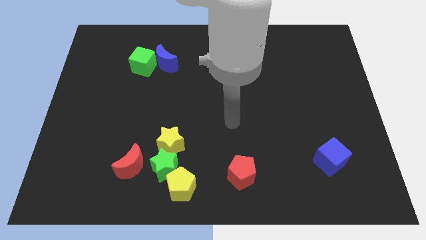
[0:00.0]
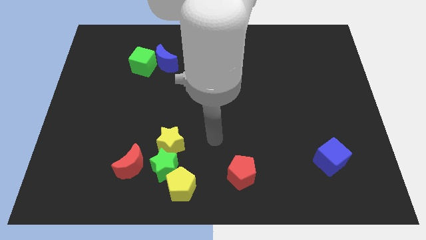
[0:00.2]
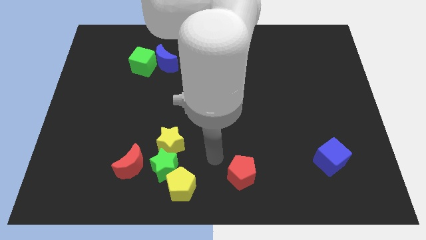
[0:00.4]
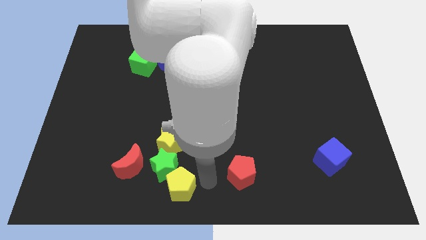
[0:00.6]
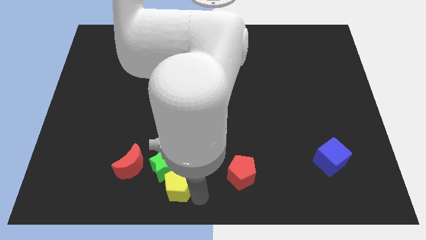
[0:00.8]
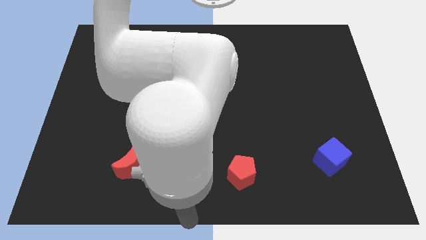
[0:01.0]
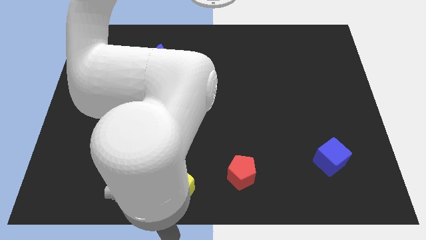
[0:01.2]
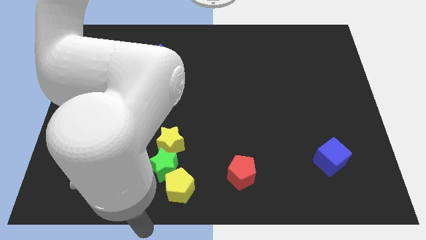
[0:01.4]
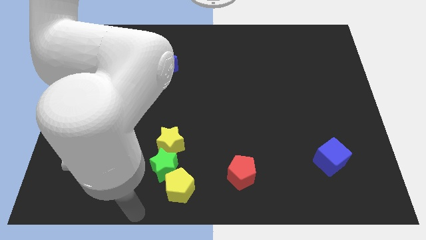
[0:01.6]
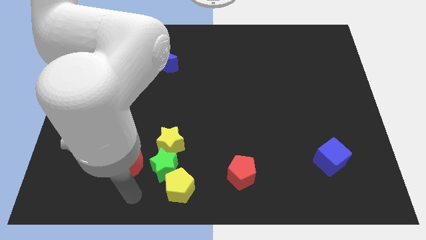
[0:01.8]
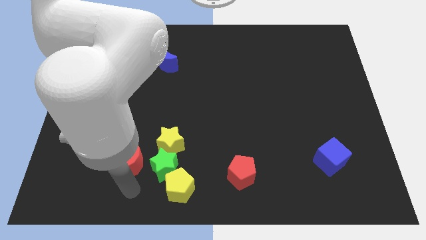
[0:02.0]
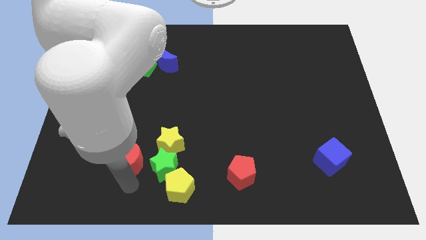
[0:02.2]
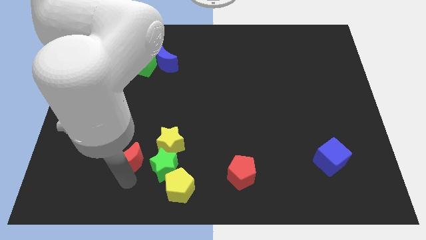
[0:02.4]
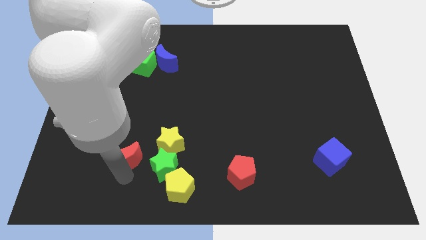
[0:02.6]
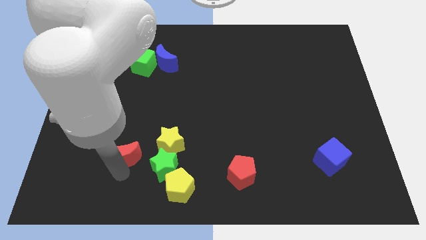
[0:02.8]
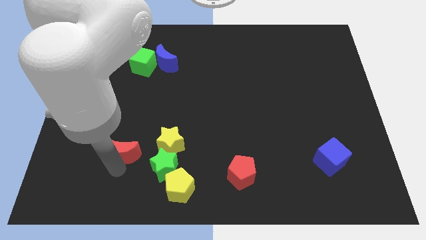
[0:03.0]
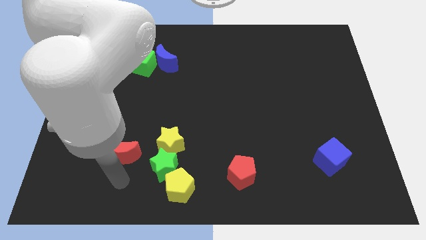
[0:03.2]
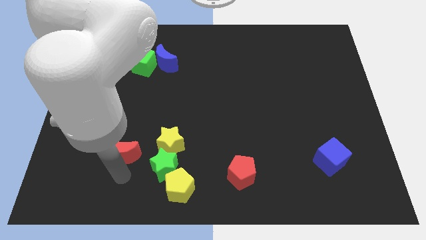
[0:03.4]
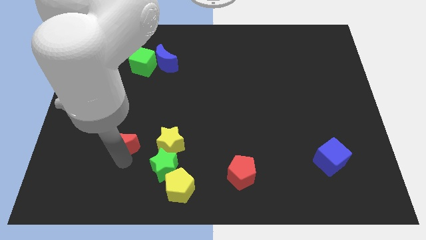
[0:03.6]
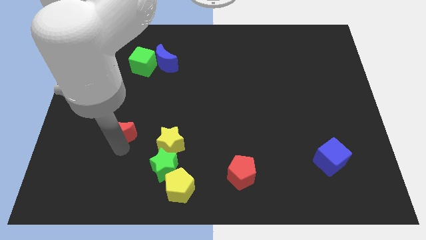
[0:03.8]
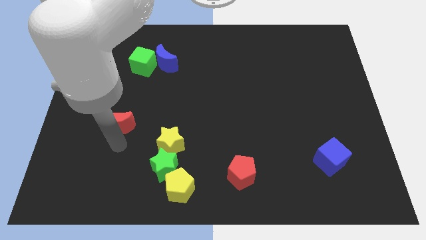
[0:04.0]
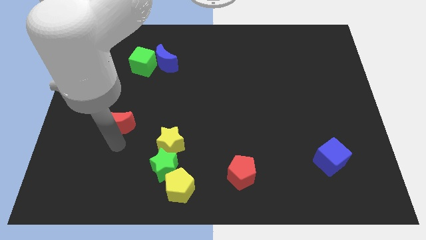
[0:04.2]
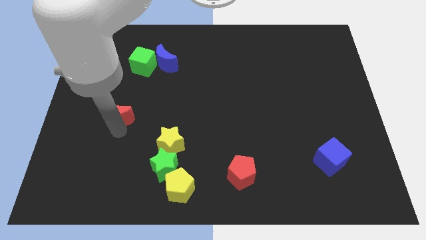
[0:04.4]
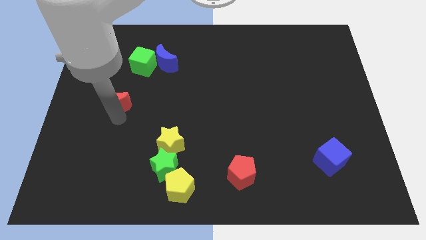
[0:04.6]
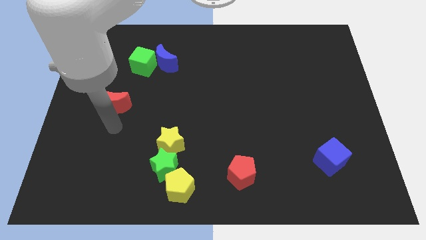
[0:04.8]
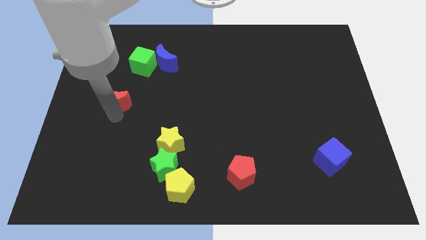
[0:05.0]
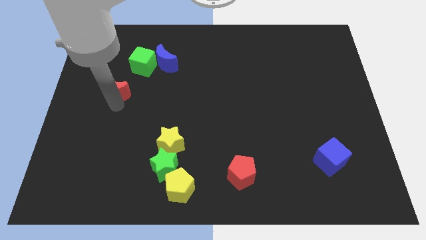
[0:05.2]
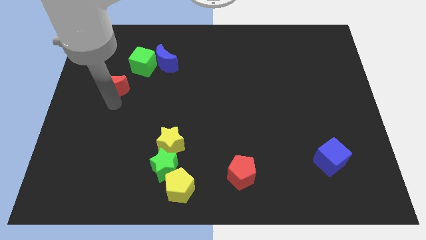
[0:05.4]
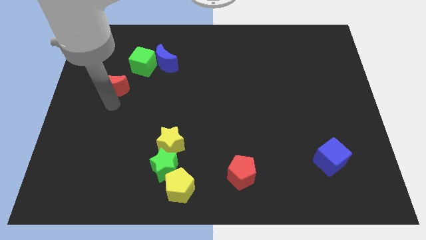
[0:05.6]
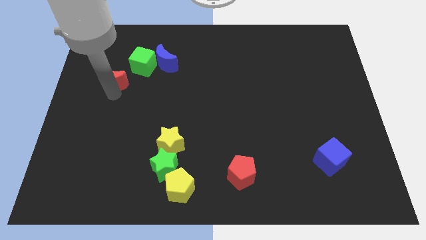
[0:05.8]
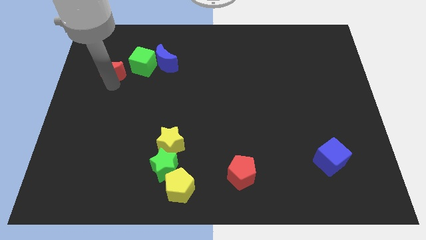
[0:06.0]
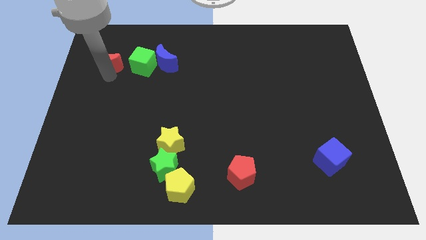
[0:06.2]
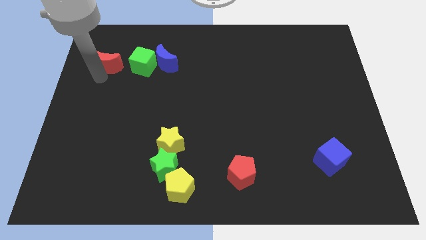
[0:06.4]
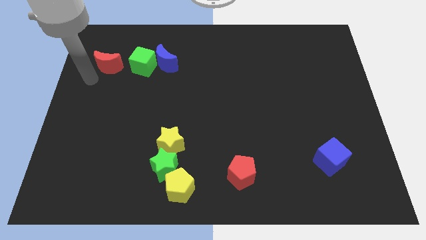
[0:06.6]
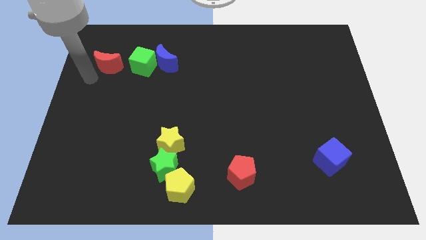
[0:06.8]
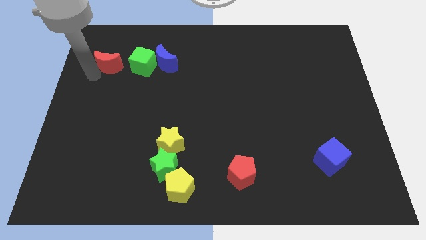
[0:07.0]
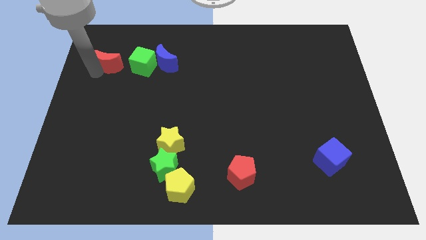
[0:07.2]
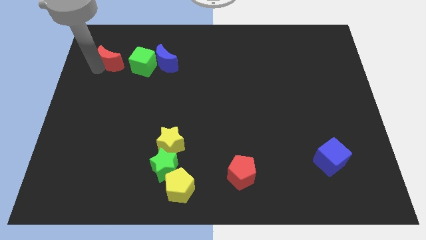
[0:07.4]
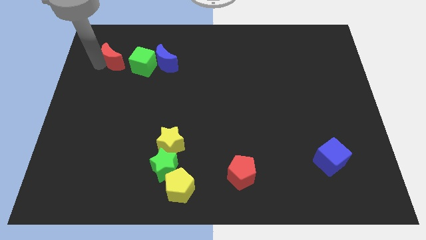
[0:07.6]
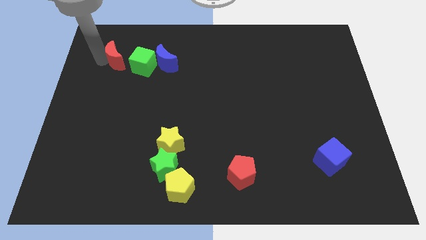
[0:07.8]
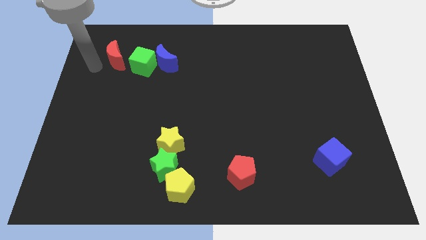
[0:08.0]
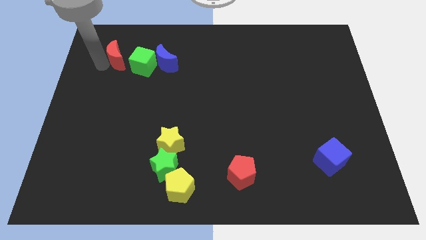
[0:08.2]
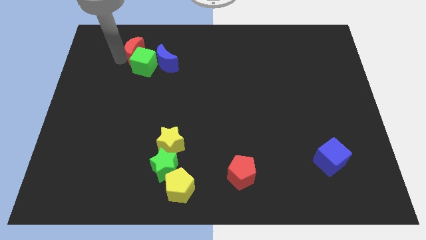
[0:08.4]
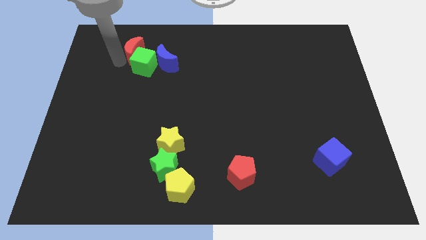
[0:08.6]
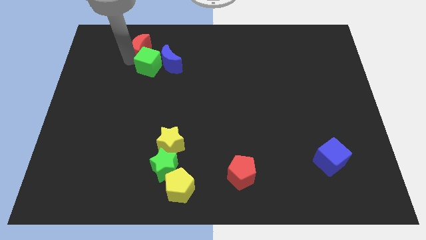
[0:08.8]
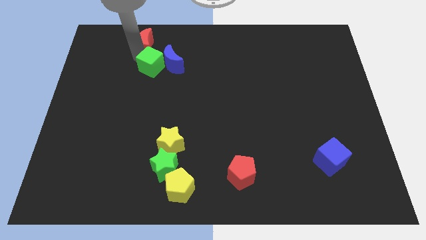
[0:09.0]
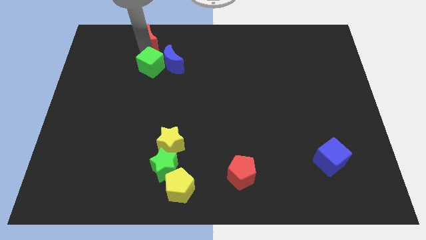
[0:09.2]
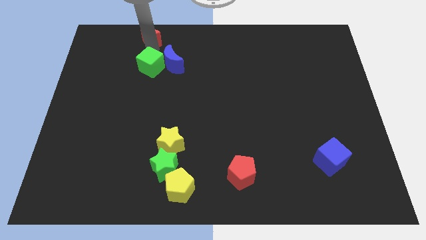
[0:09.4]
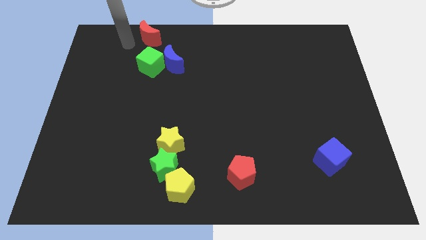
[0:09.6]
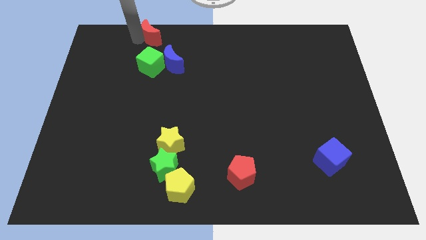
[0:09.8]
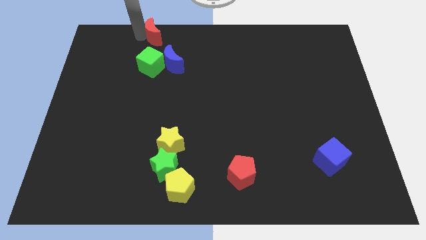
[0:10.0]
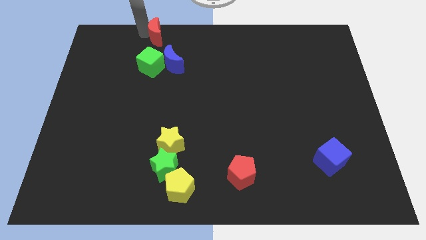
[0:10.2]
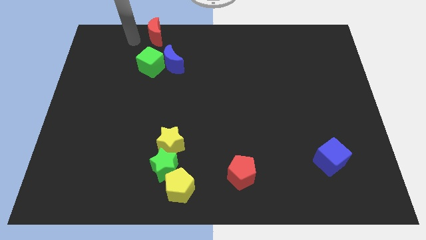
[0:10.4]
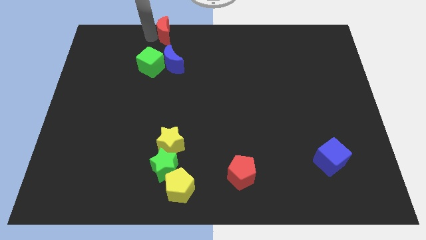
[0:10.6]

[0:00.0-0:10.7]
move the red moon to the top

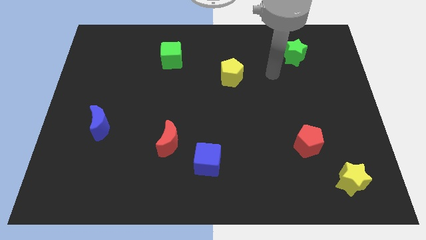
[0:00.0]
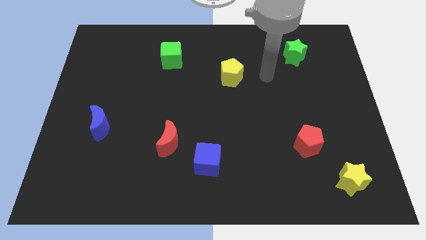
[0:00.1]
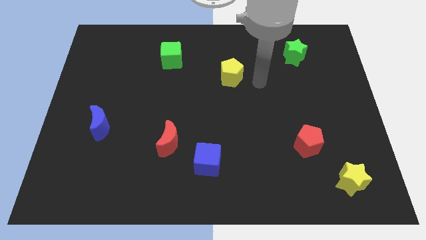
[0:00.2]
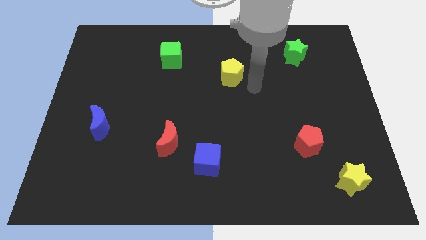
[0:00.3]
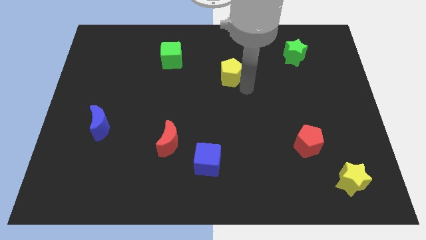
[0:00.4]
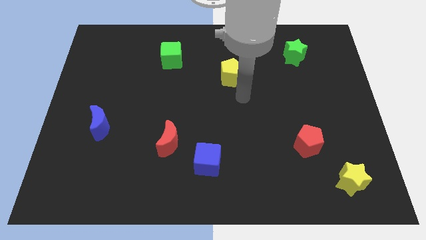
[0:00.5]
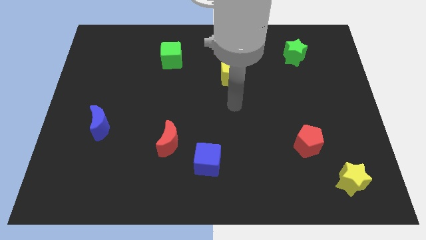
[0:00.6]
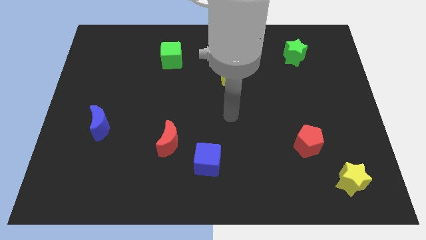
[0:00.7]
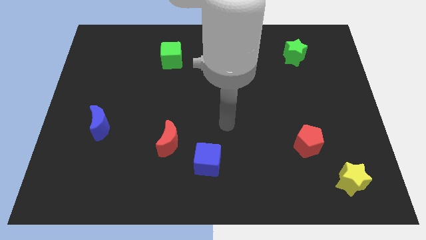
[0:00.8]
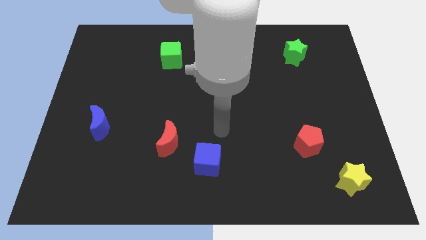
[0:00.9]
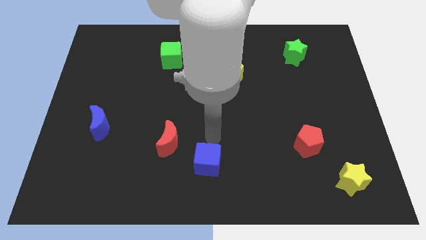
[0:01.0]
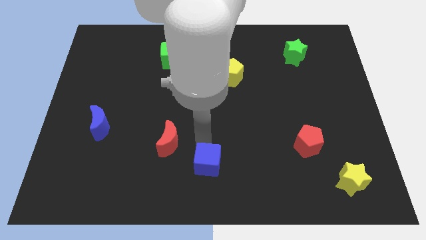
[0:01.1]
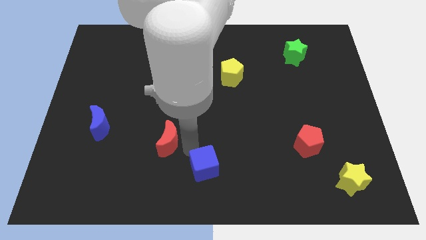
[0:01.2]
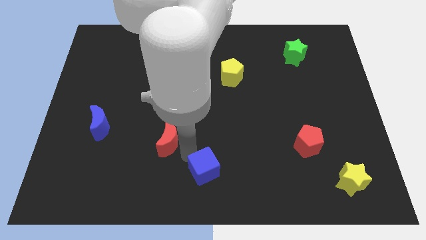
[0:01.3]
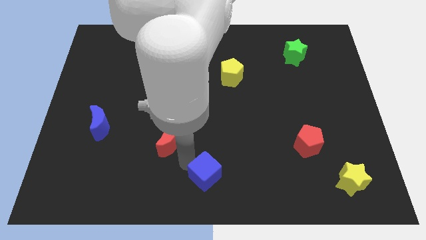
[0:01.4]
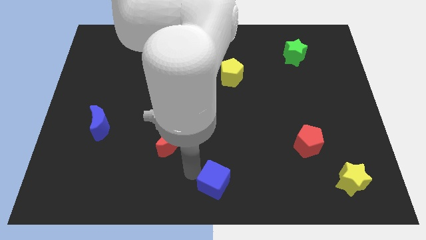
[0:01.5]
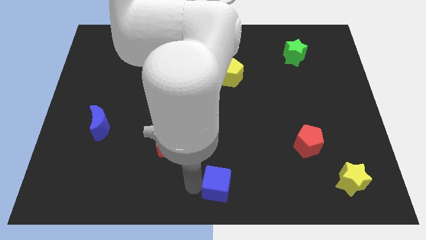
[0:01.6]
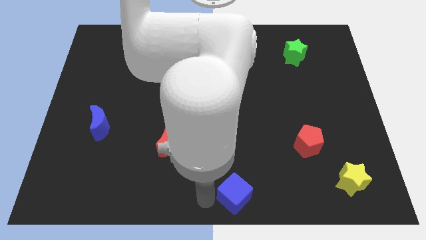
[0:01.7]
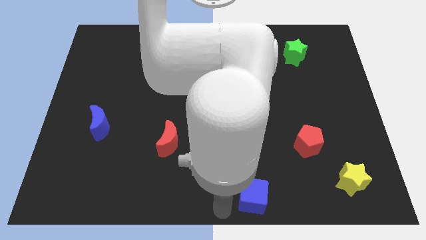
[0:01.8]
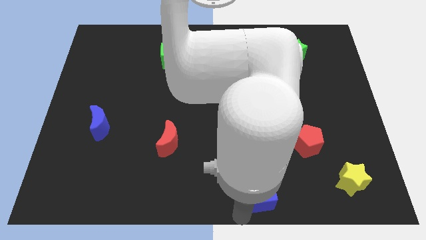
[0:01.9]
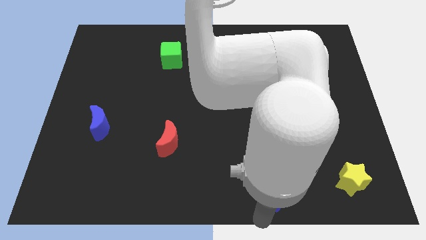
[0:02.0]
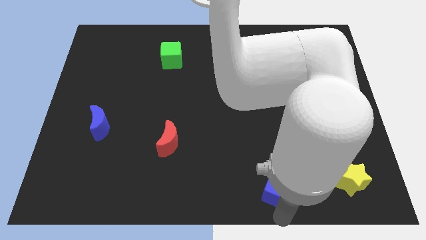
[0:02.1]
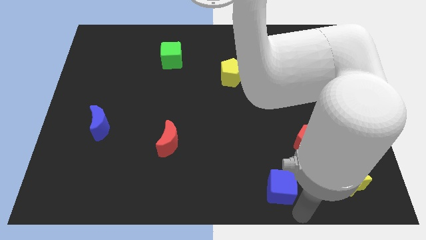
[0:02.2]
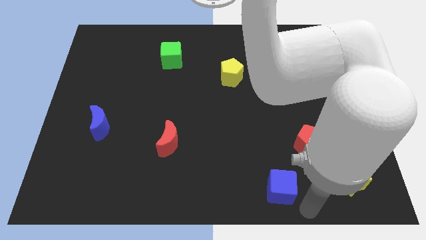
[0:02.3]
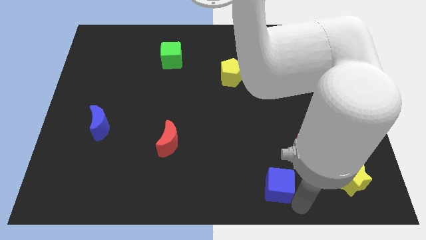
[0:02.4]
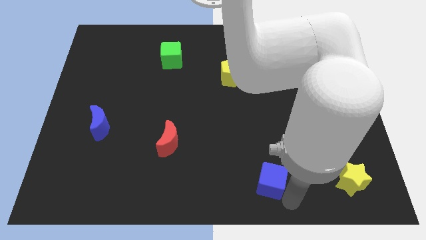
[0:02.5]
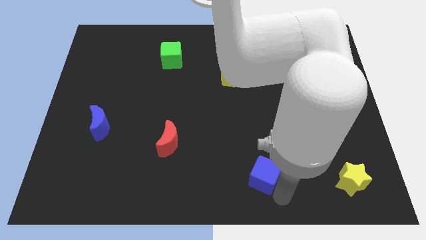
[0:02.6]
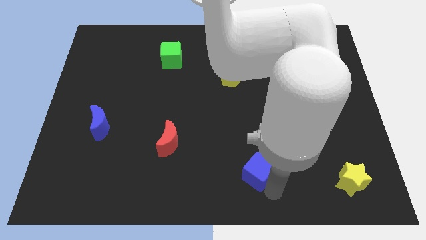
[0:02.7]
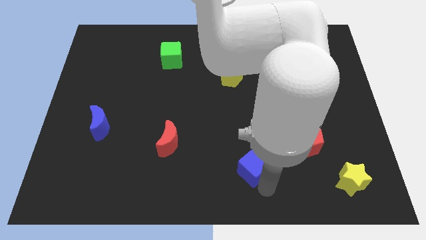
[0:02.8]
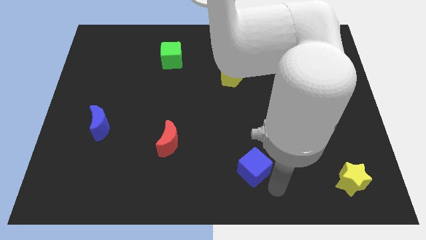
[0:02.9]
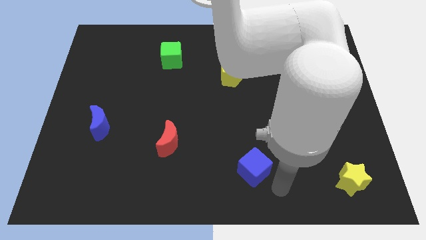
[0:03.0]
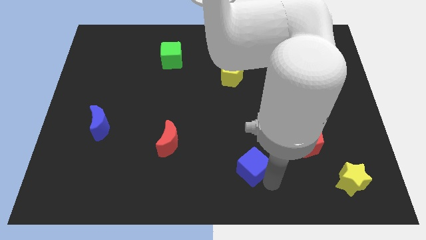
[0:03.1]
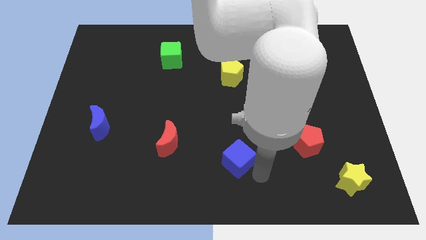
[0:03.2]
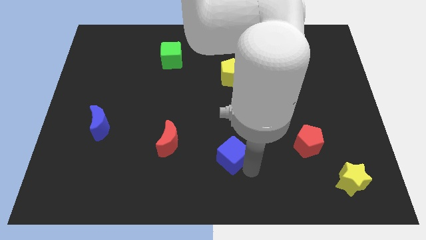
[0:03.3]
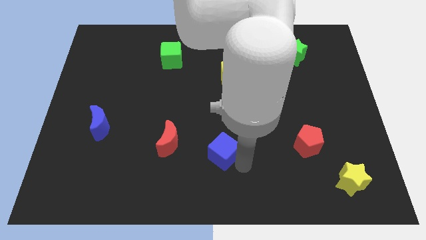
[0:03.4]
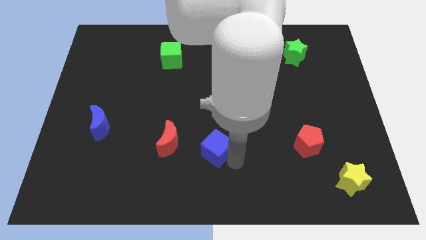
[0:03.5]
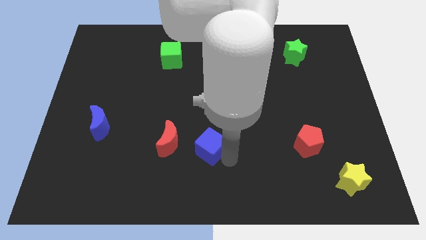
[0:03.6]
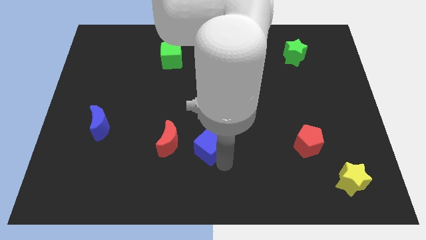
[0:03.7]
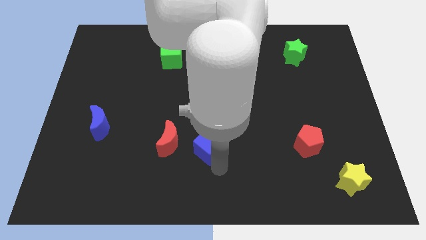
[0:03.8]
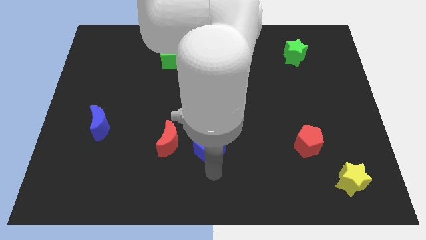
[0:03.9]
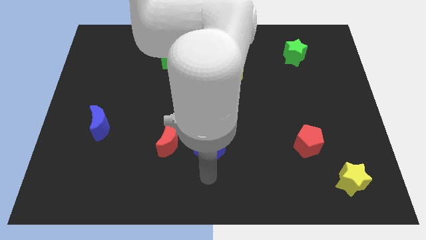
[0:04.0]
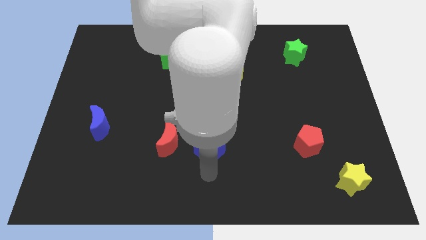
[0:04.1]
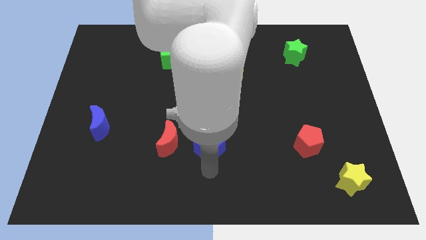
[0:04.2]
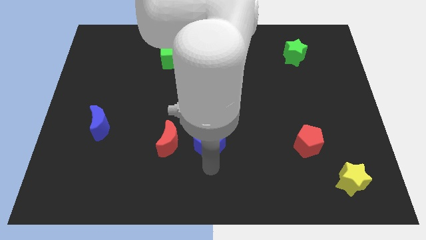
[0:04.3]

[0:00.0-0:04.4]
put the blue cube to the middle
